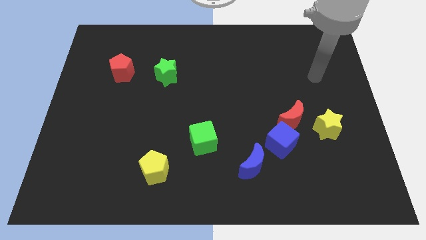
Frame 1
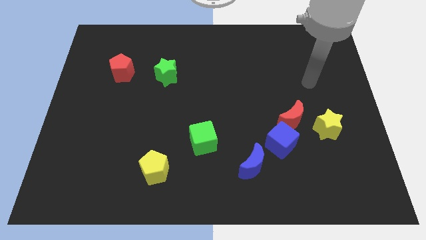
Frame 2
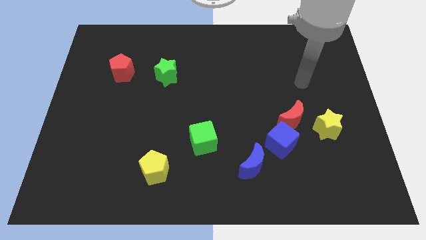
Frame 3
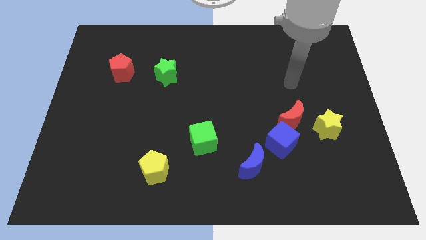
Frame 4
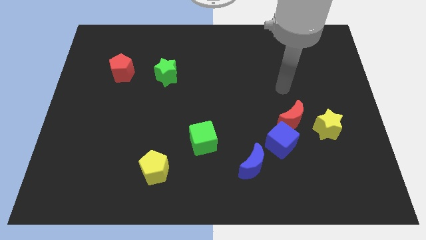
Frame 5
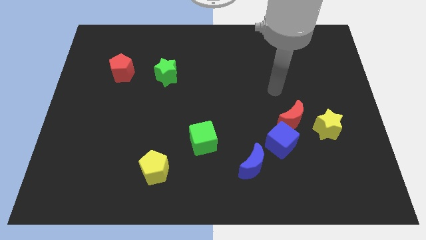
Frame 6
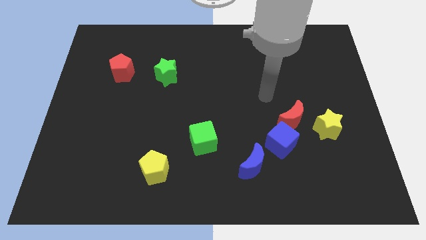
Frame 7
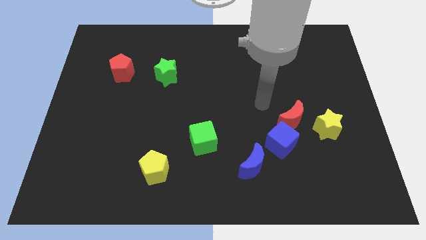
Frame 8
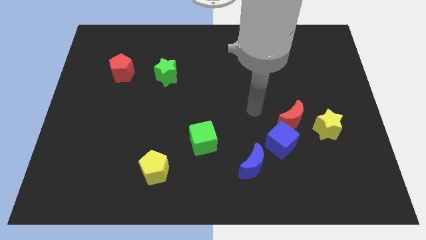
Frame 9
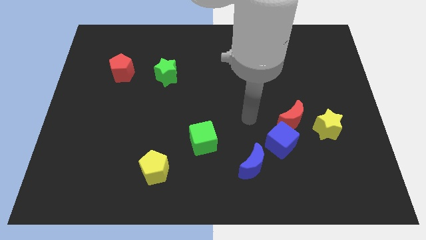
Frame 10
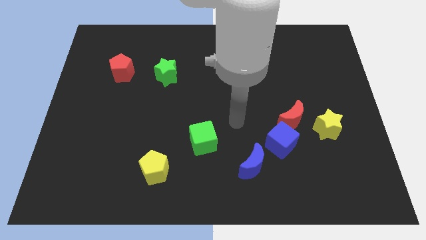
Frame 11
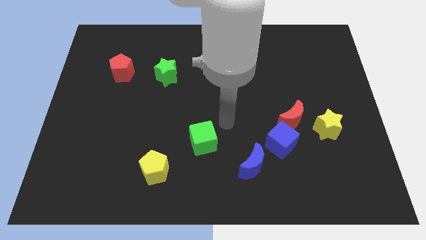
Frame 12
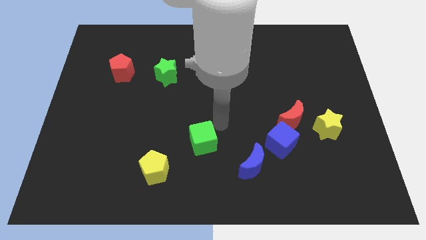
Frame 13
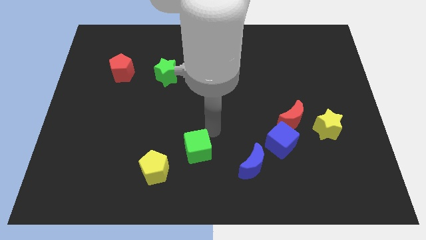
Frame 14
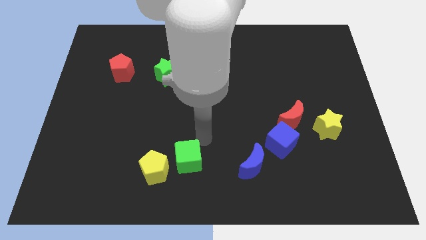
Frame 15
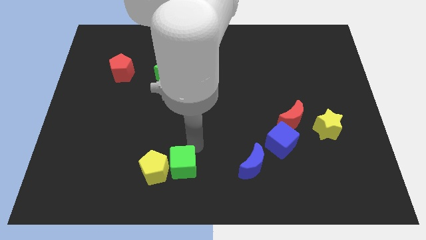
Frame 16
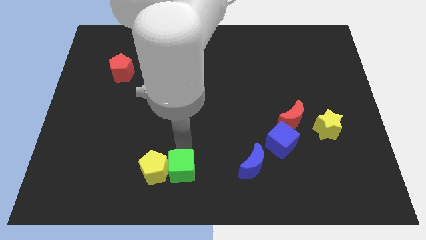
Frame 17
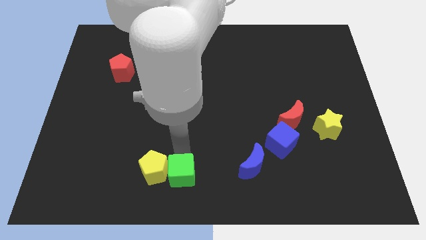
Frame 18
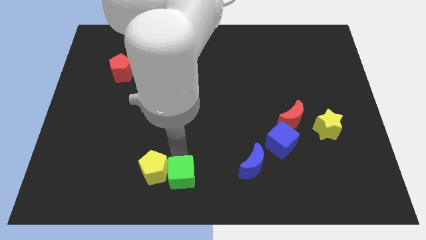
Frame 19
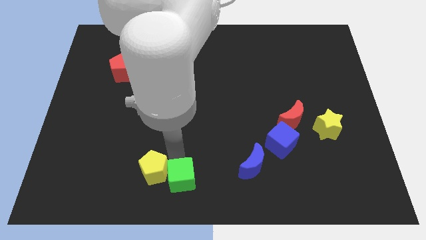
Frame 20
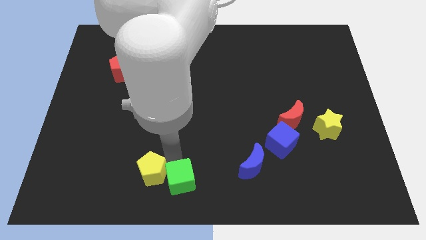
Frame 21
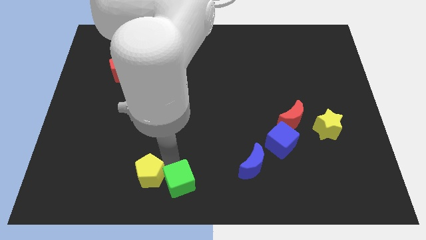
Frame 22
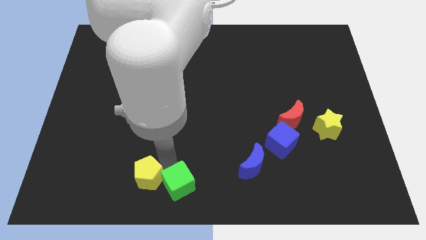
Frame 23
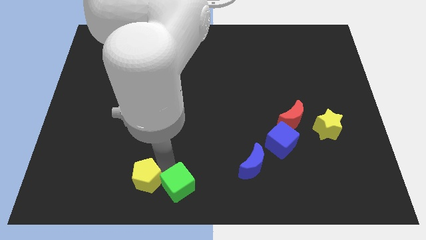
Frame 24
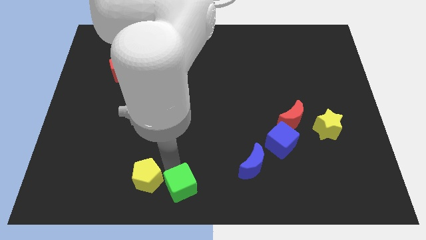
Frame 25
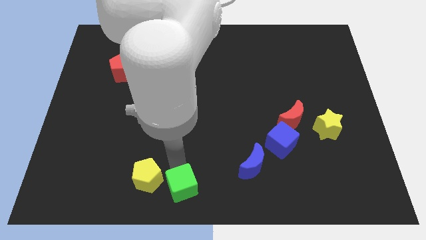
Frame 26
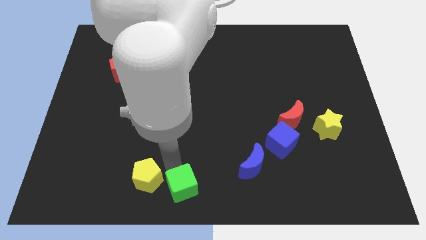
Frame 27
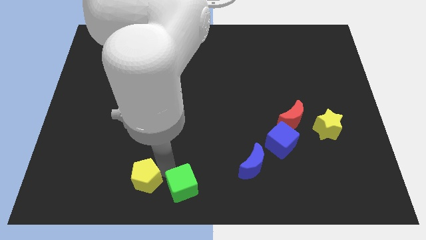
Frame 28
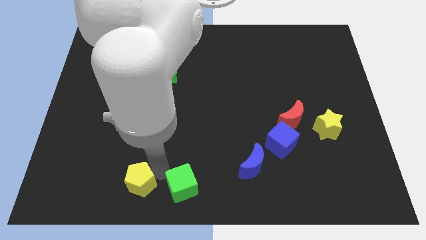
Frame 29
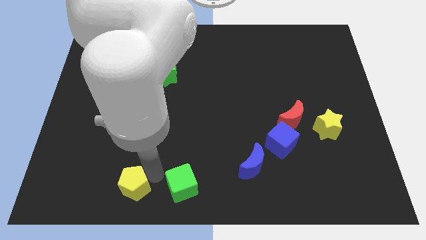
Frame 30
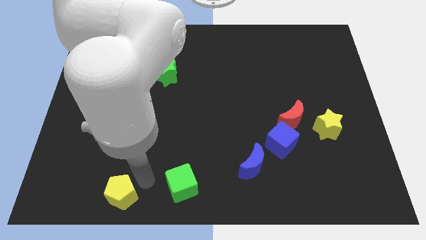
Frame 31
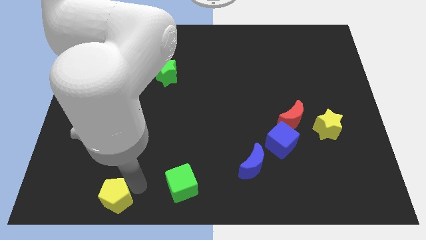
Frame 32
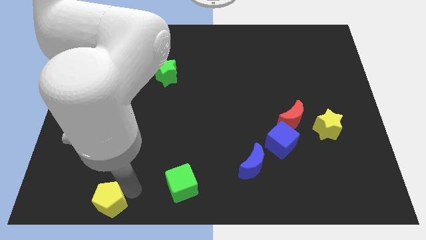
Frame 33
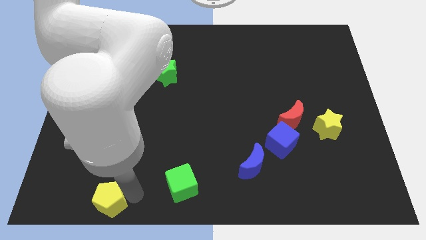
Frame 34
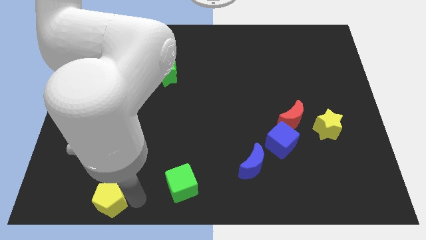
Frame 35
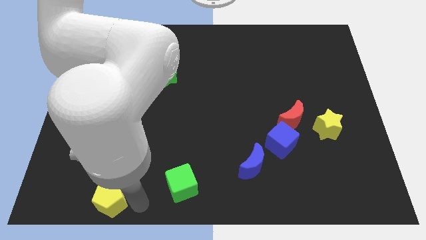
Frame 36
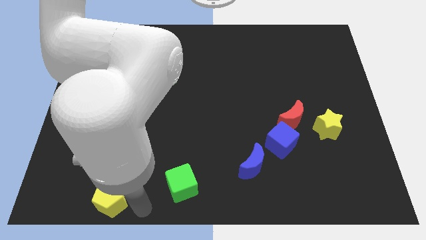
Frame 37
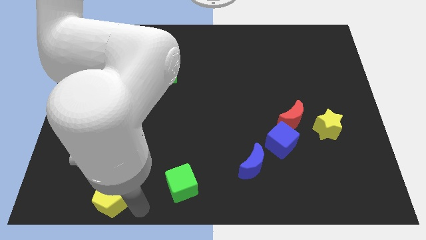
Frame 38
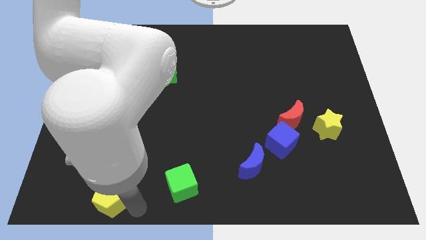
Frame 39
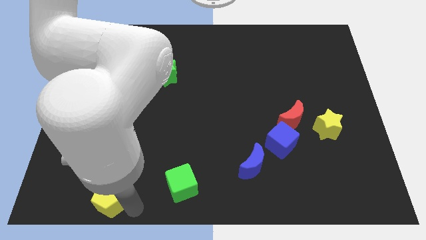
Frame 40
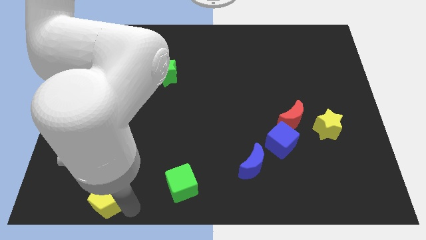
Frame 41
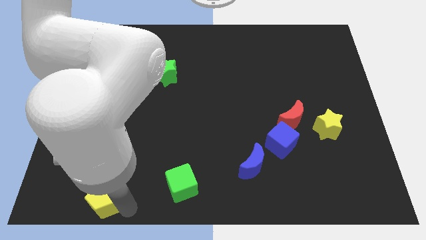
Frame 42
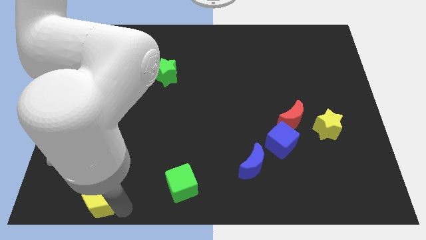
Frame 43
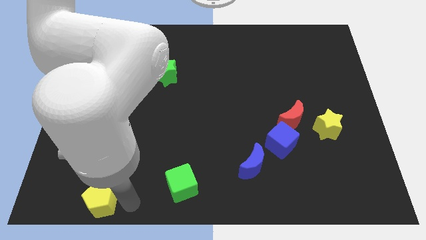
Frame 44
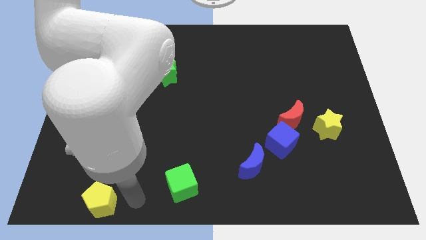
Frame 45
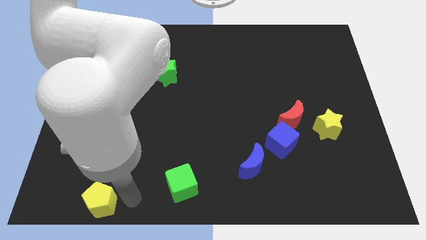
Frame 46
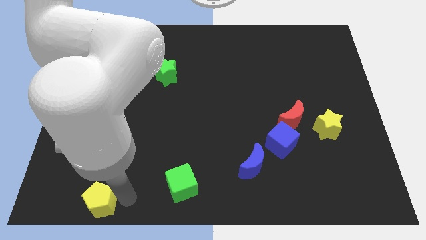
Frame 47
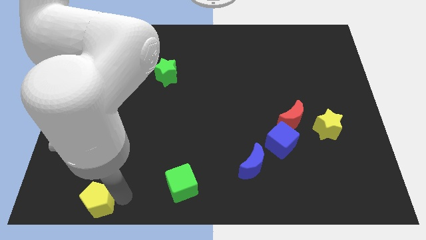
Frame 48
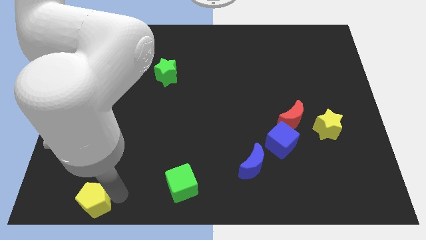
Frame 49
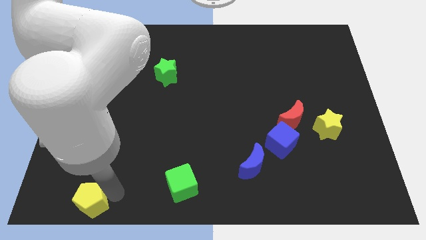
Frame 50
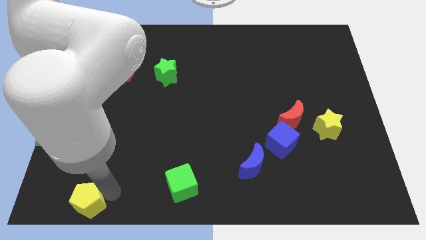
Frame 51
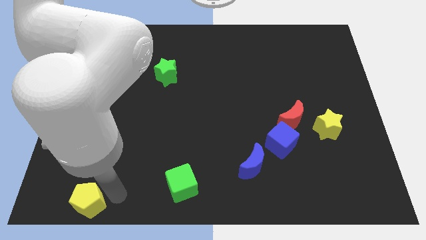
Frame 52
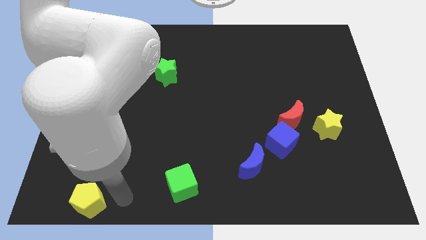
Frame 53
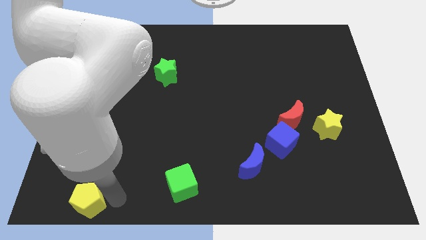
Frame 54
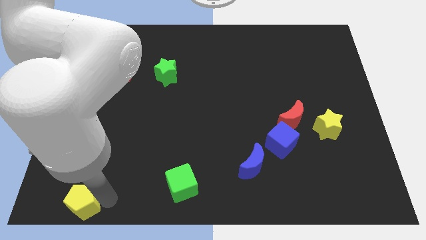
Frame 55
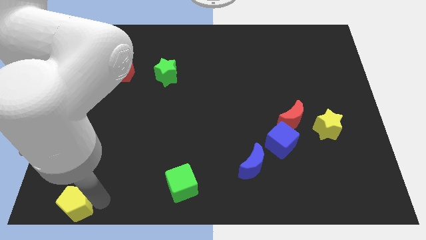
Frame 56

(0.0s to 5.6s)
move the yellow pentagon to the bottom left corner
